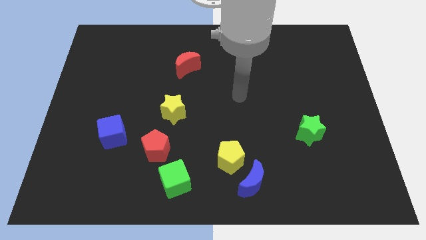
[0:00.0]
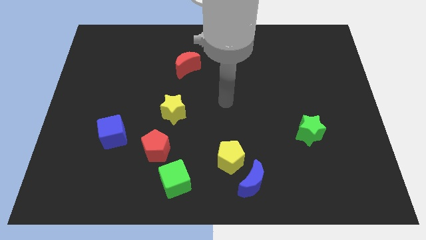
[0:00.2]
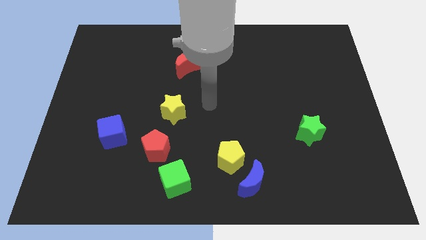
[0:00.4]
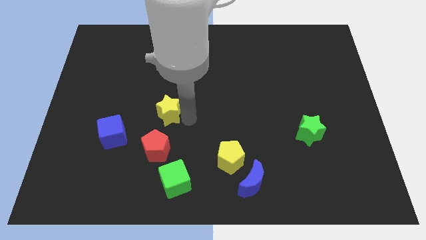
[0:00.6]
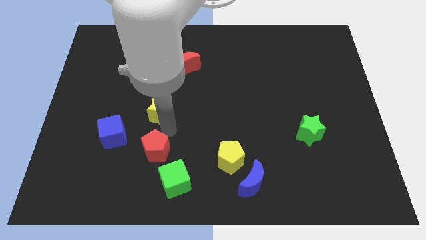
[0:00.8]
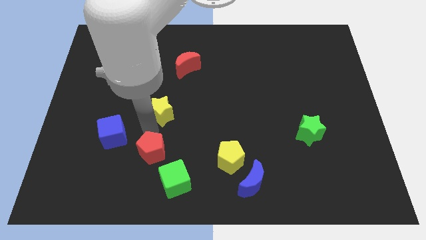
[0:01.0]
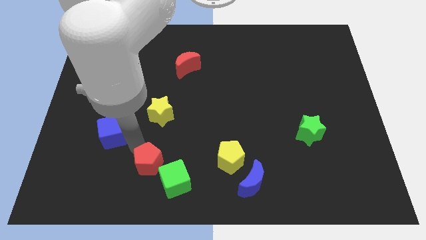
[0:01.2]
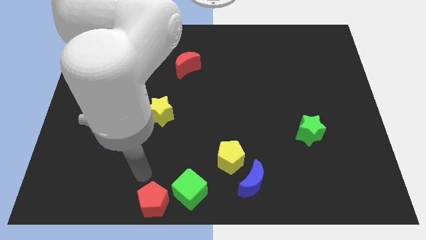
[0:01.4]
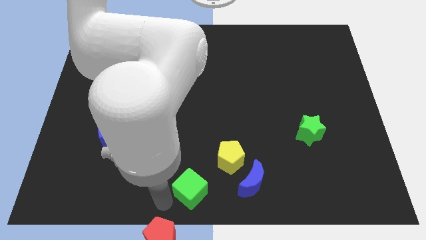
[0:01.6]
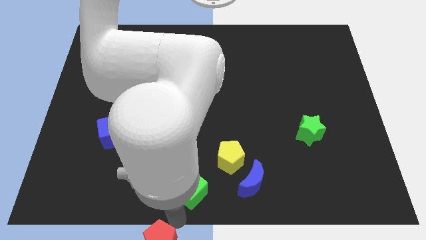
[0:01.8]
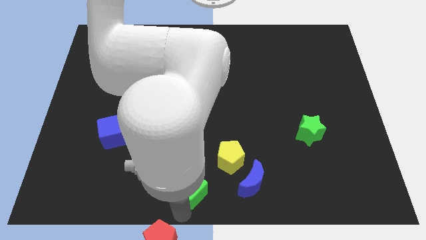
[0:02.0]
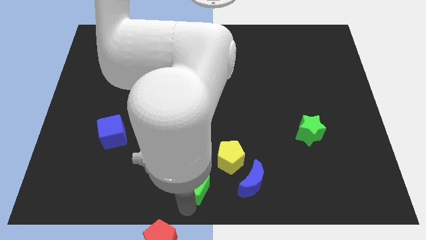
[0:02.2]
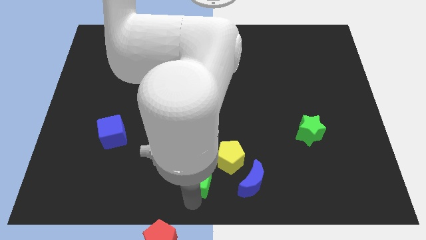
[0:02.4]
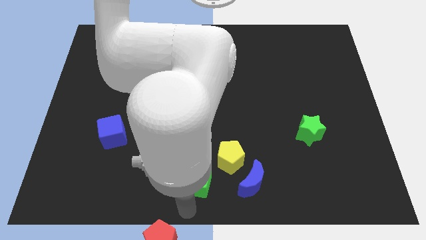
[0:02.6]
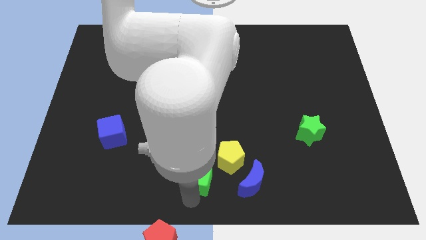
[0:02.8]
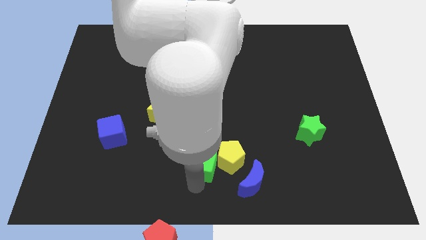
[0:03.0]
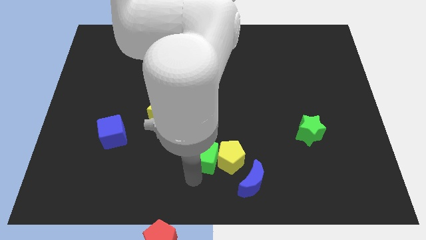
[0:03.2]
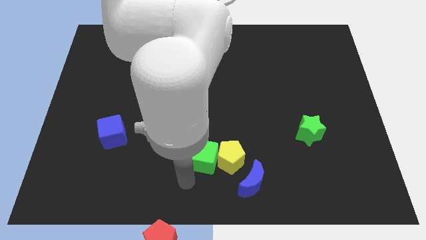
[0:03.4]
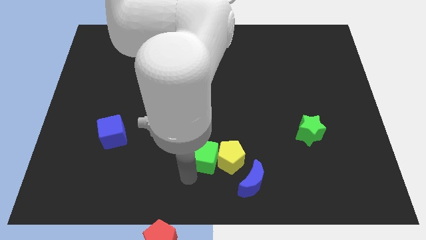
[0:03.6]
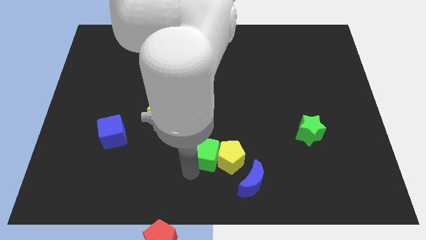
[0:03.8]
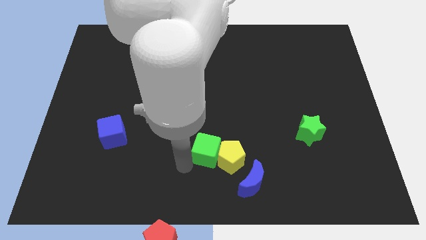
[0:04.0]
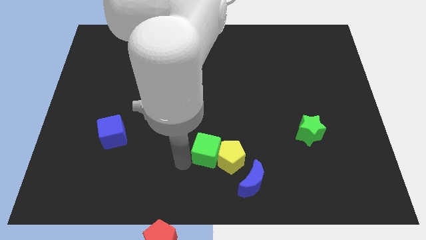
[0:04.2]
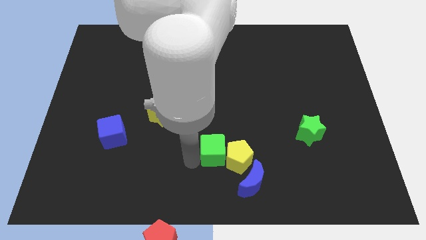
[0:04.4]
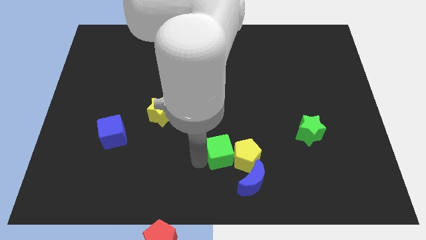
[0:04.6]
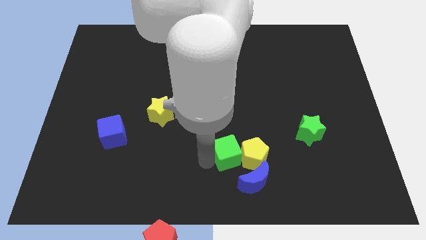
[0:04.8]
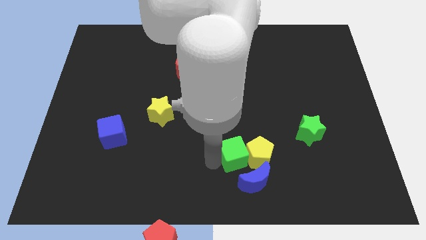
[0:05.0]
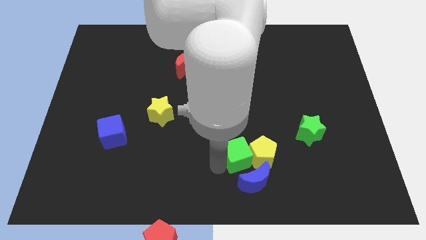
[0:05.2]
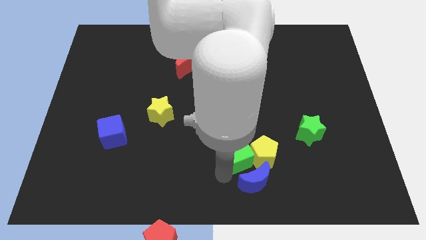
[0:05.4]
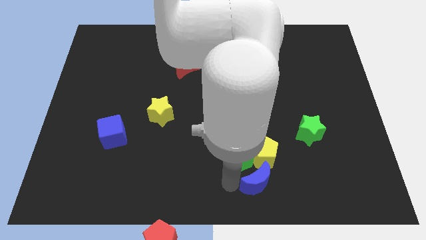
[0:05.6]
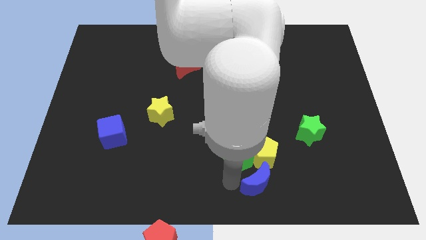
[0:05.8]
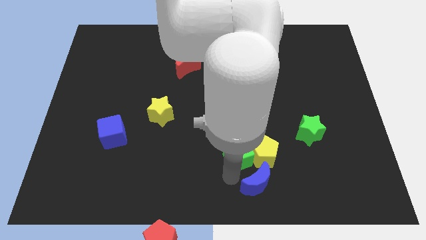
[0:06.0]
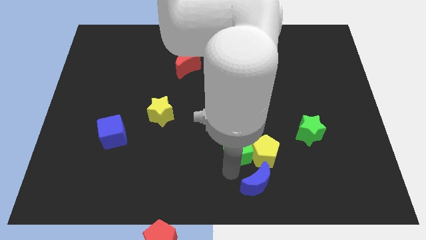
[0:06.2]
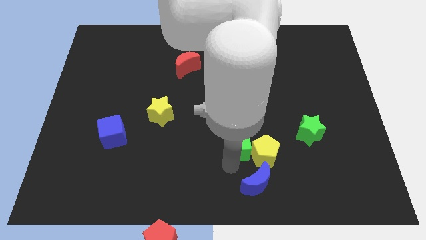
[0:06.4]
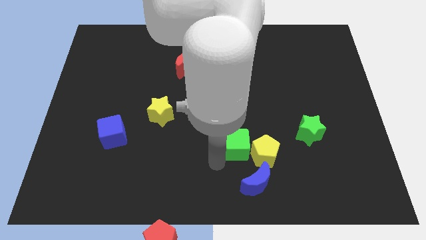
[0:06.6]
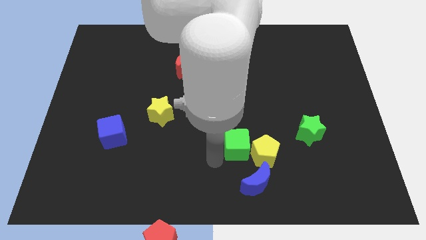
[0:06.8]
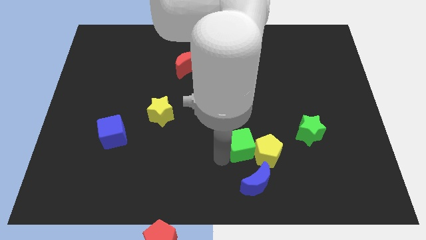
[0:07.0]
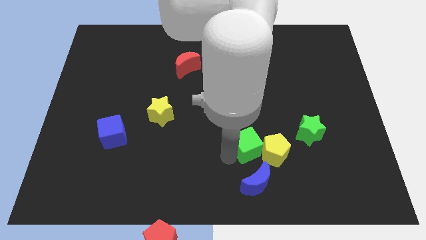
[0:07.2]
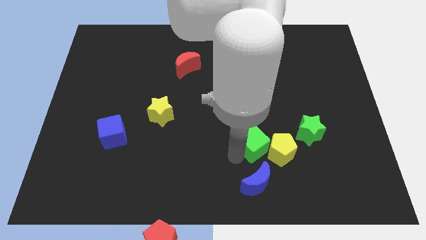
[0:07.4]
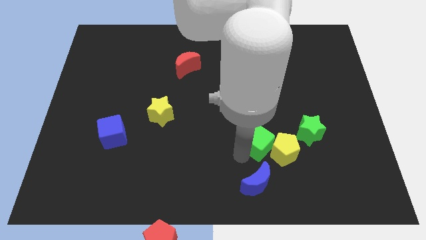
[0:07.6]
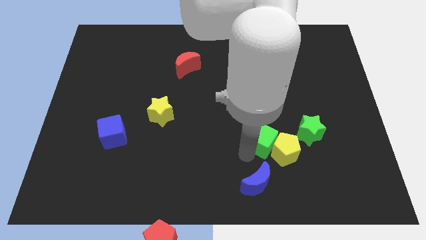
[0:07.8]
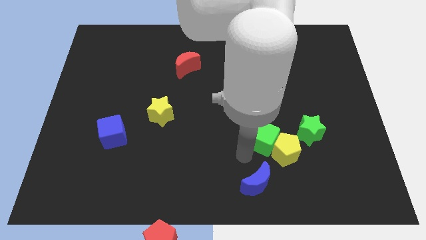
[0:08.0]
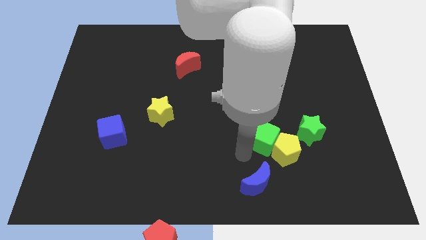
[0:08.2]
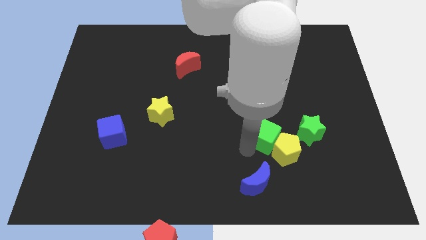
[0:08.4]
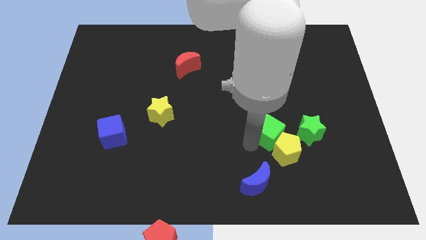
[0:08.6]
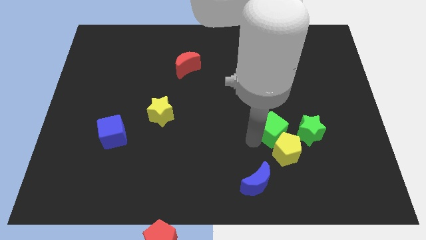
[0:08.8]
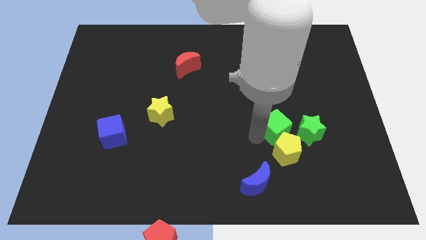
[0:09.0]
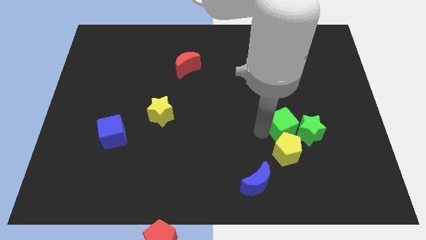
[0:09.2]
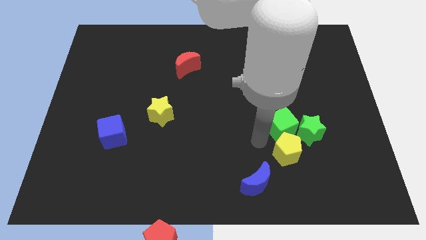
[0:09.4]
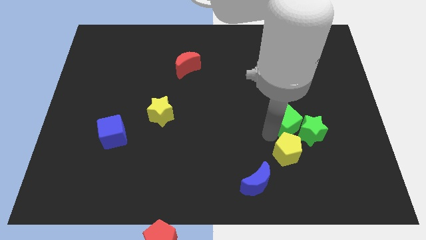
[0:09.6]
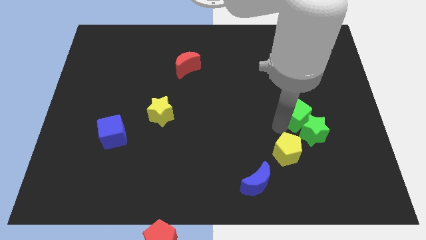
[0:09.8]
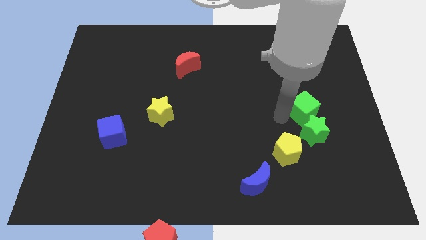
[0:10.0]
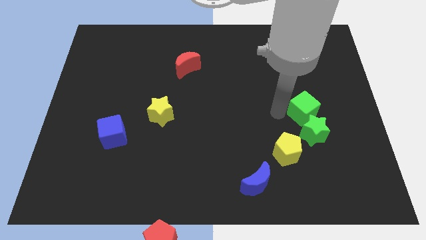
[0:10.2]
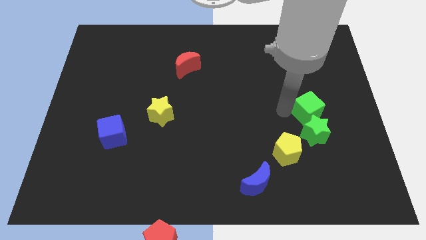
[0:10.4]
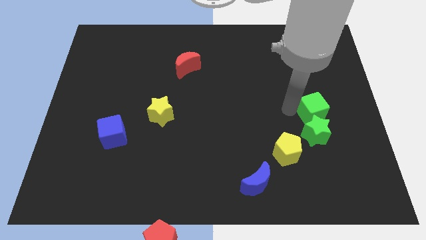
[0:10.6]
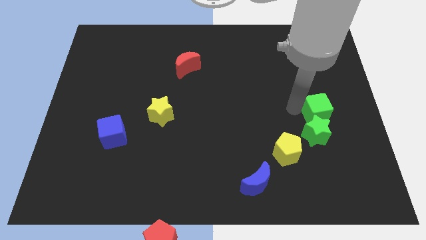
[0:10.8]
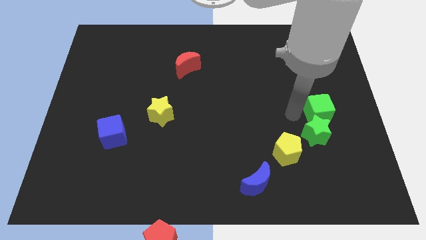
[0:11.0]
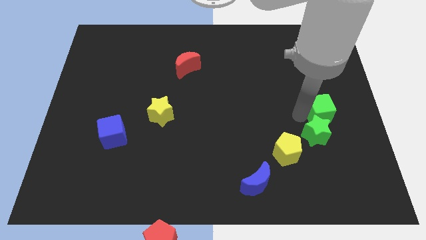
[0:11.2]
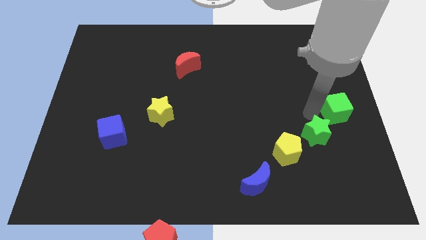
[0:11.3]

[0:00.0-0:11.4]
put the green cube to the right side
